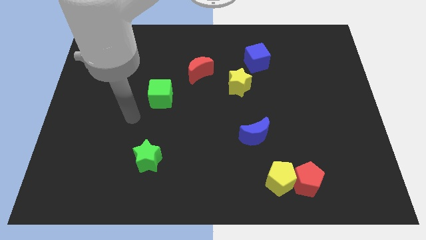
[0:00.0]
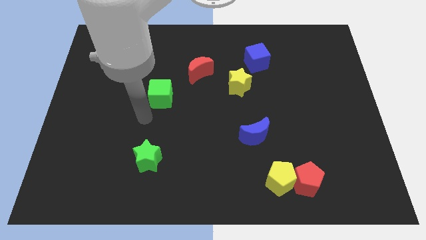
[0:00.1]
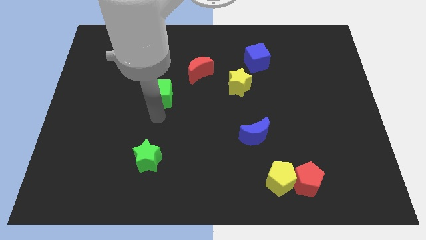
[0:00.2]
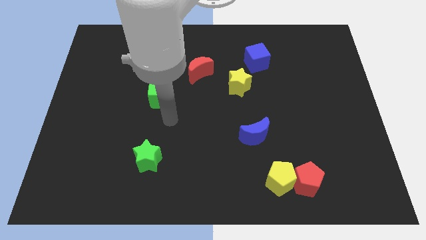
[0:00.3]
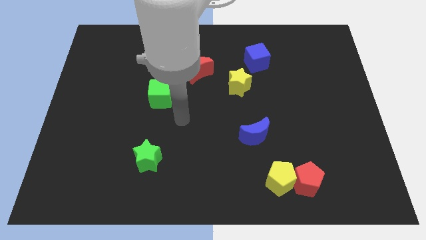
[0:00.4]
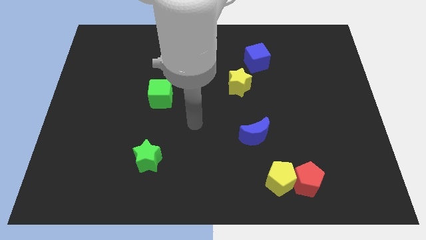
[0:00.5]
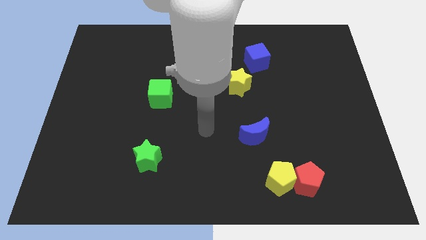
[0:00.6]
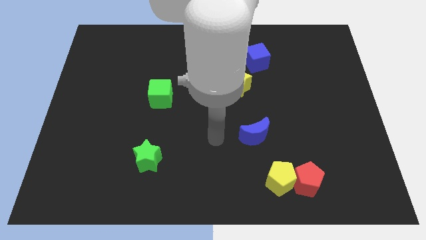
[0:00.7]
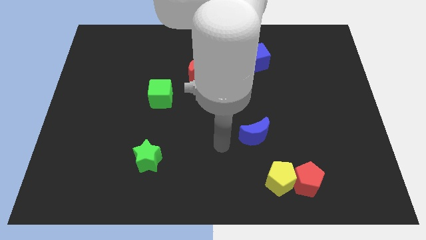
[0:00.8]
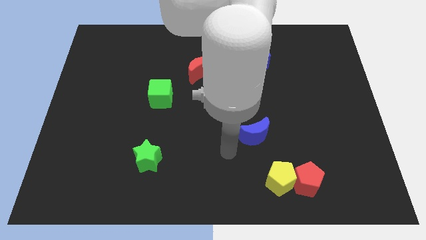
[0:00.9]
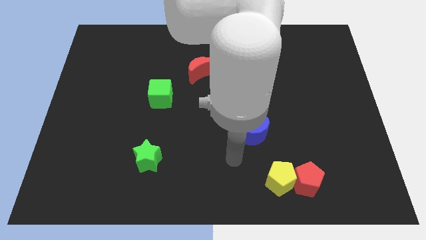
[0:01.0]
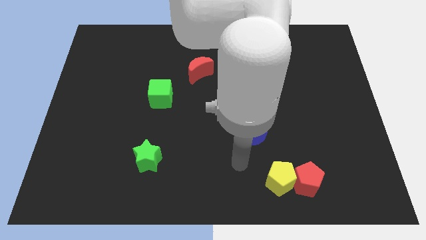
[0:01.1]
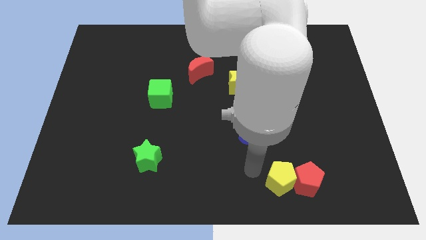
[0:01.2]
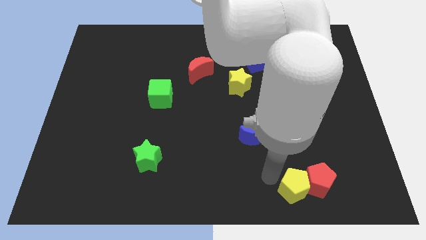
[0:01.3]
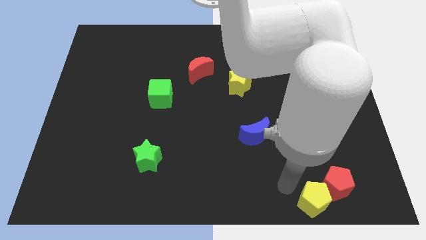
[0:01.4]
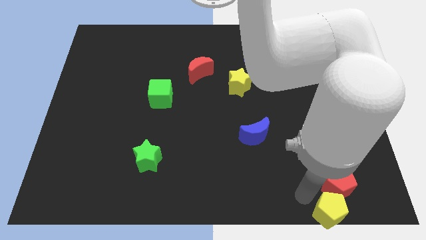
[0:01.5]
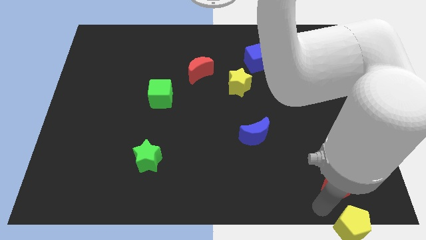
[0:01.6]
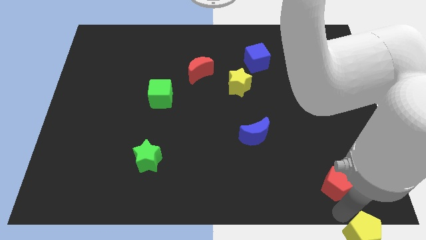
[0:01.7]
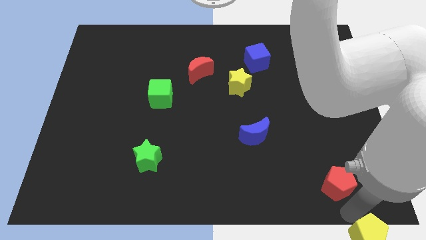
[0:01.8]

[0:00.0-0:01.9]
pull the red pentagon apart from the yellow pentagon

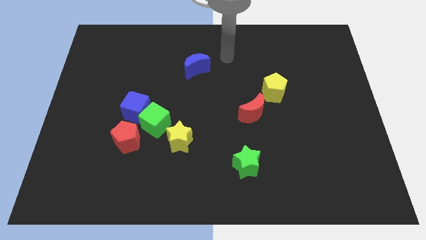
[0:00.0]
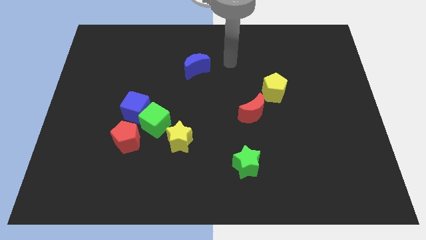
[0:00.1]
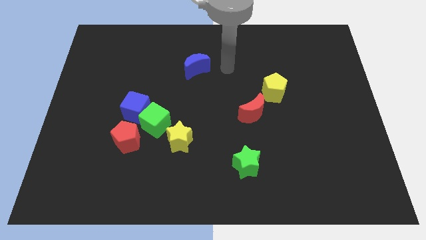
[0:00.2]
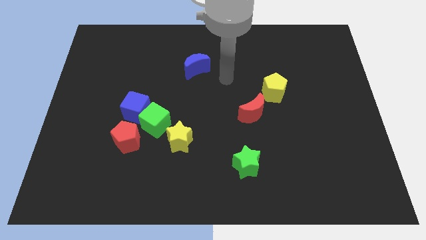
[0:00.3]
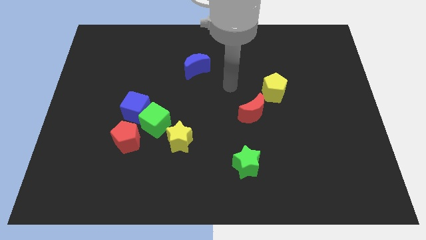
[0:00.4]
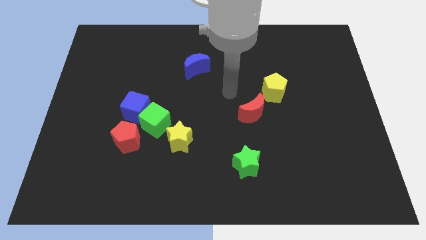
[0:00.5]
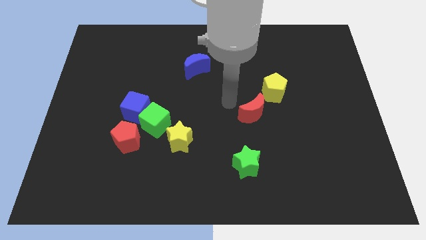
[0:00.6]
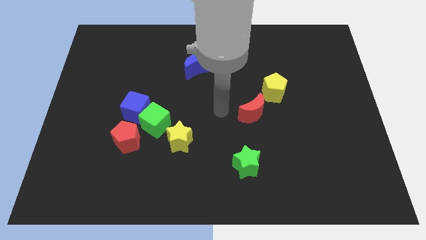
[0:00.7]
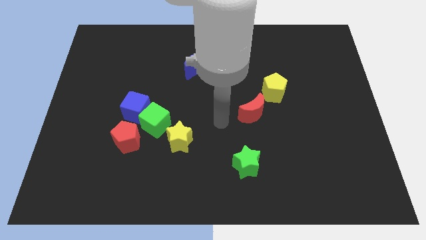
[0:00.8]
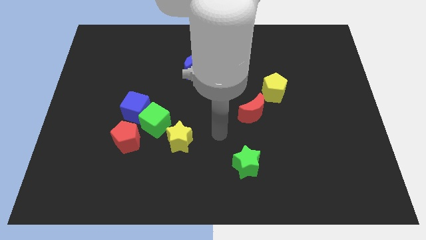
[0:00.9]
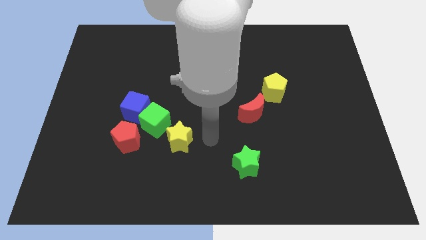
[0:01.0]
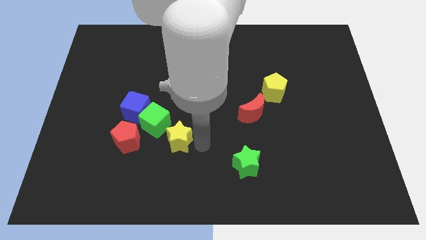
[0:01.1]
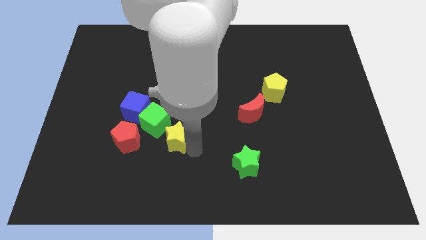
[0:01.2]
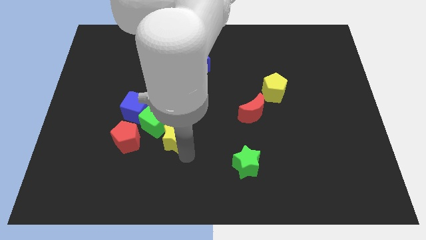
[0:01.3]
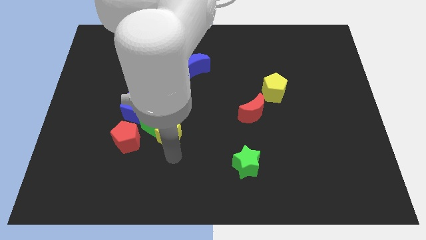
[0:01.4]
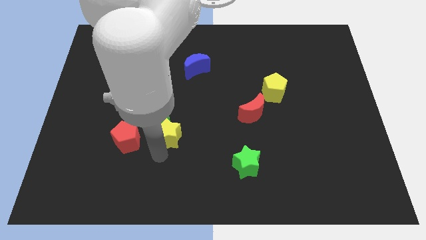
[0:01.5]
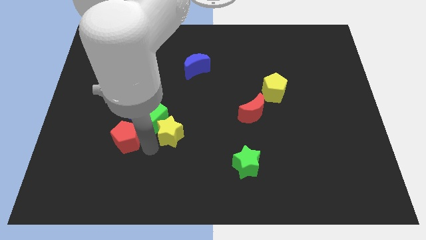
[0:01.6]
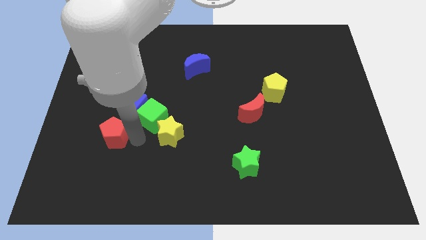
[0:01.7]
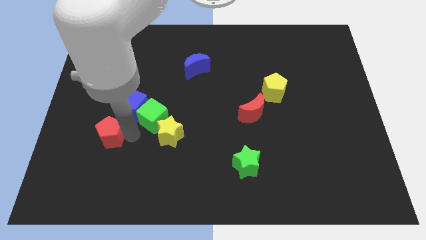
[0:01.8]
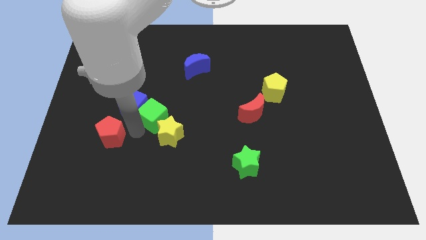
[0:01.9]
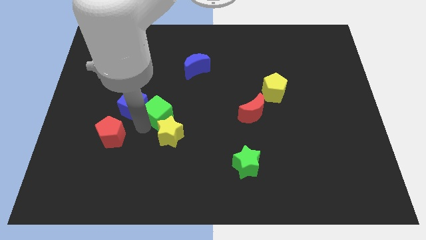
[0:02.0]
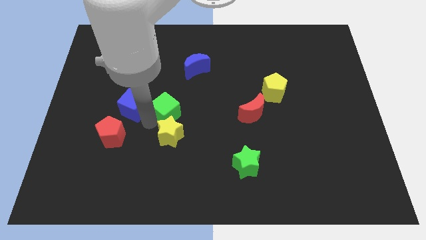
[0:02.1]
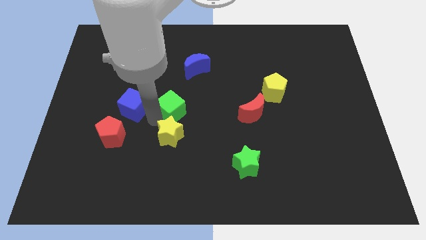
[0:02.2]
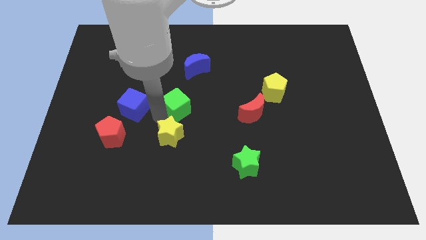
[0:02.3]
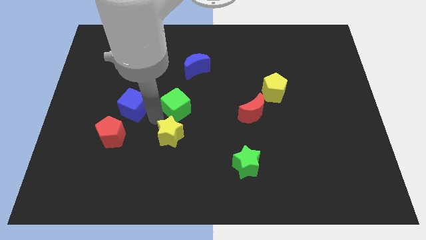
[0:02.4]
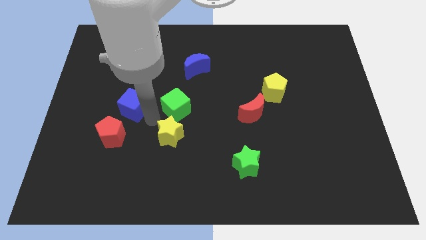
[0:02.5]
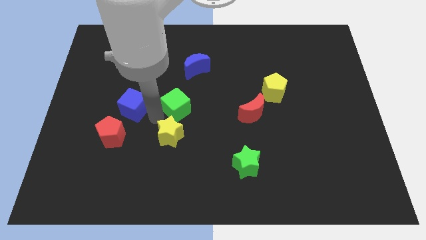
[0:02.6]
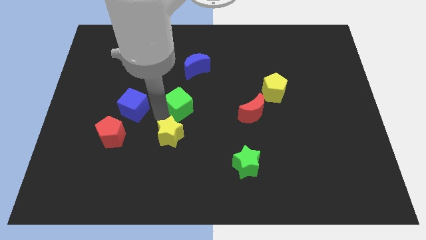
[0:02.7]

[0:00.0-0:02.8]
separate the green cube from the blue cube, red pentagon, and yellow star

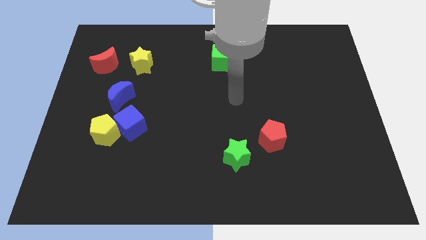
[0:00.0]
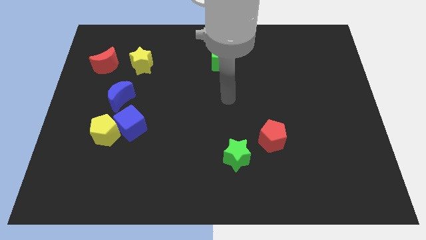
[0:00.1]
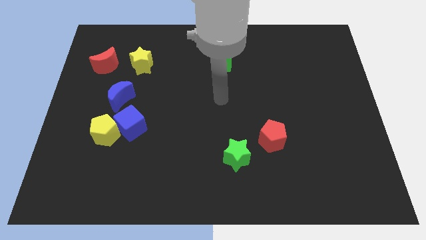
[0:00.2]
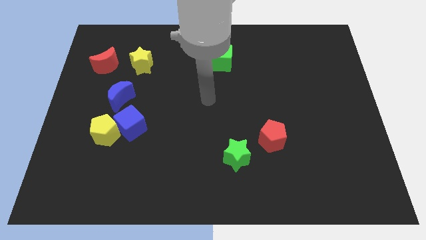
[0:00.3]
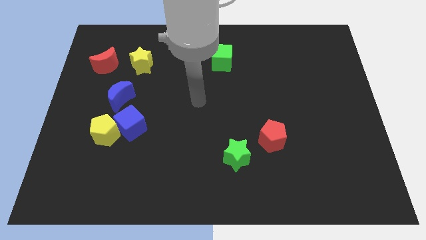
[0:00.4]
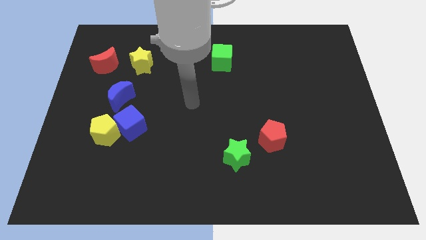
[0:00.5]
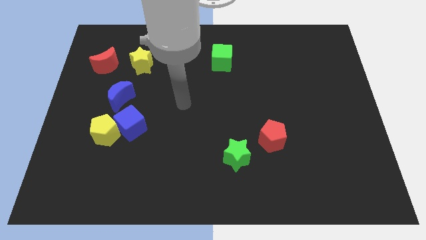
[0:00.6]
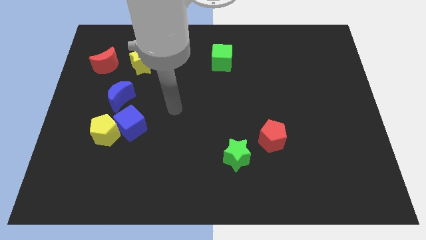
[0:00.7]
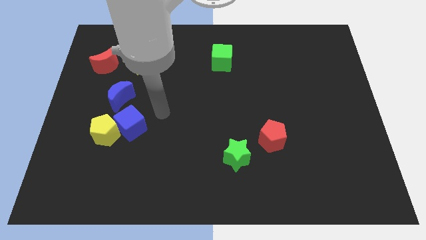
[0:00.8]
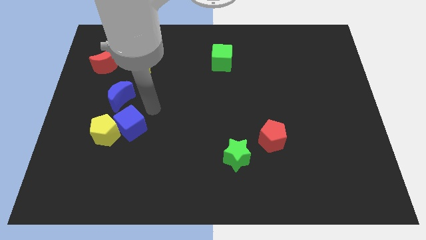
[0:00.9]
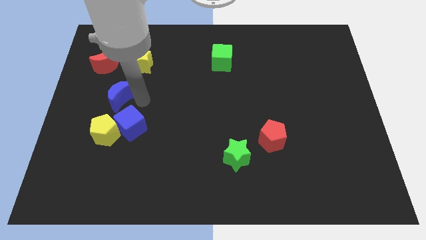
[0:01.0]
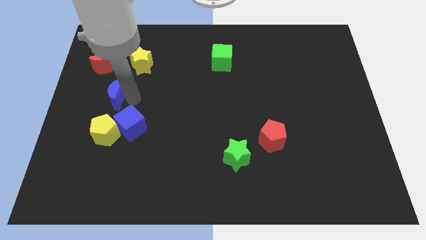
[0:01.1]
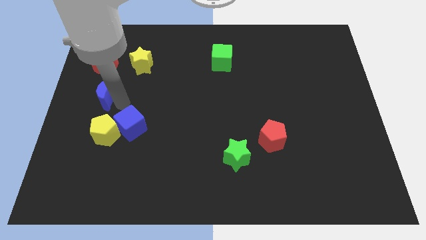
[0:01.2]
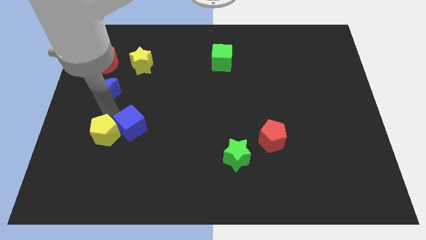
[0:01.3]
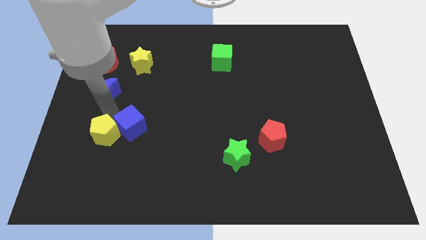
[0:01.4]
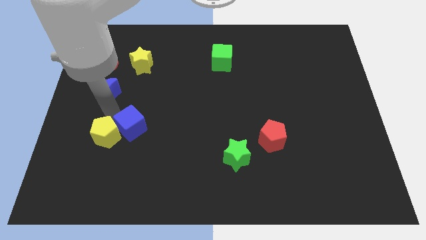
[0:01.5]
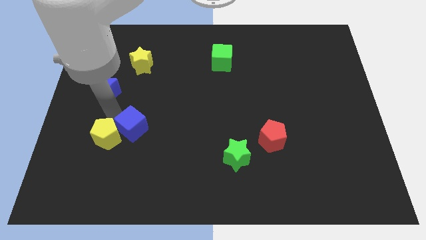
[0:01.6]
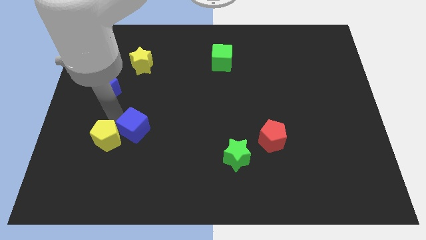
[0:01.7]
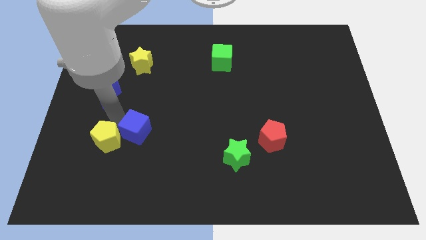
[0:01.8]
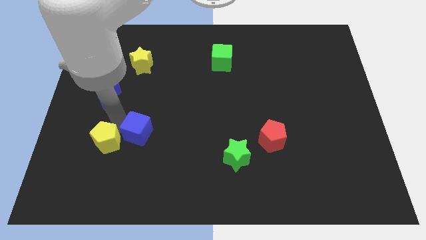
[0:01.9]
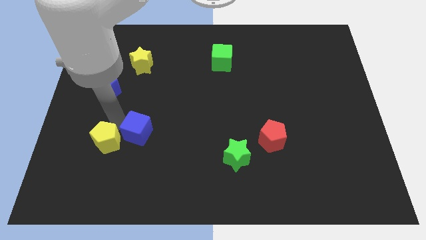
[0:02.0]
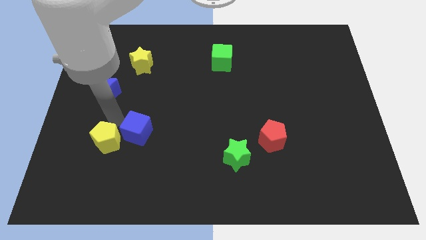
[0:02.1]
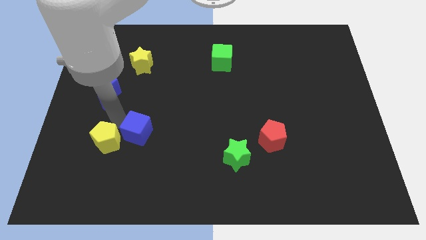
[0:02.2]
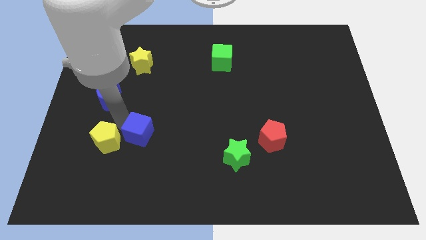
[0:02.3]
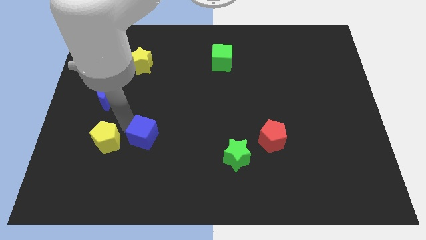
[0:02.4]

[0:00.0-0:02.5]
separate the blue cube from the yellow pentagon and blue moon

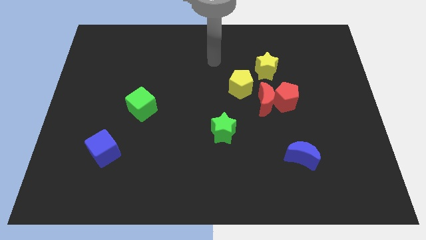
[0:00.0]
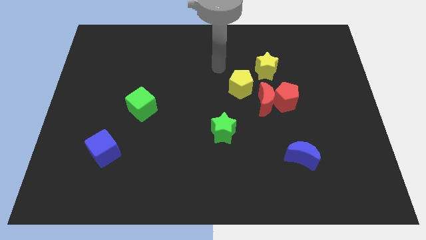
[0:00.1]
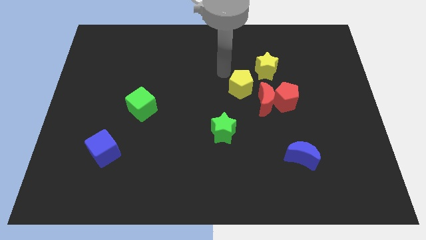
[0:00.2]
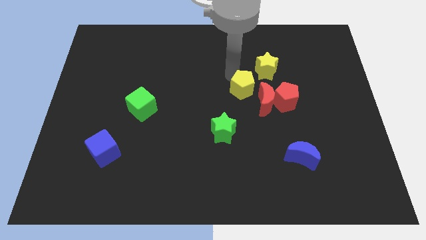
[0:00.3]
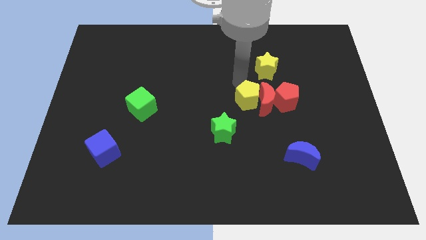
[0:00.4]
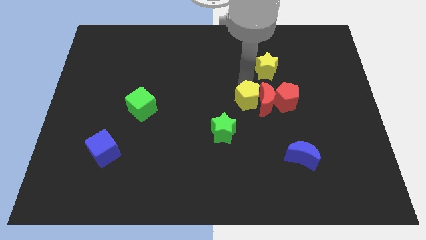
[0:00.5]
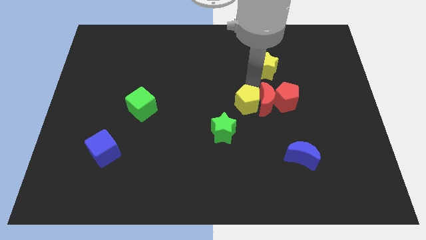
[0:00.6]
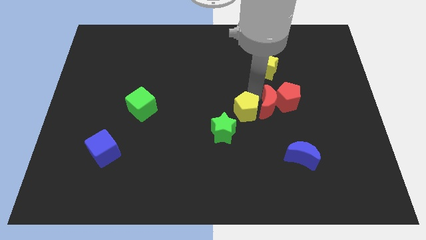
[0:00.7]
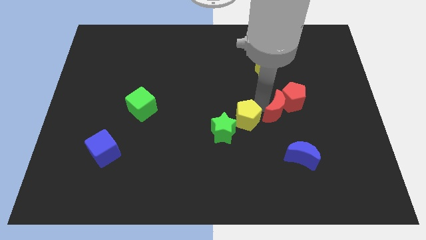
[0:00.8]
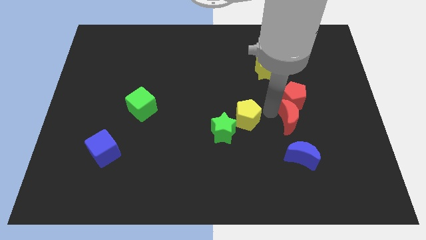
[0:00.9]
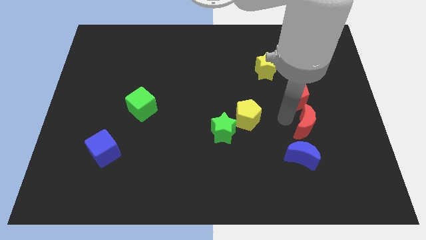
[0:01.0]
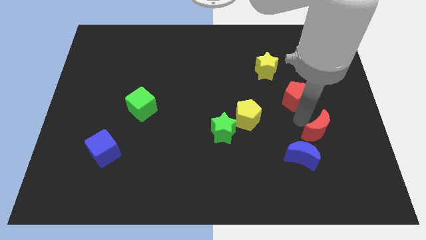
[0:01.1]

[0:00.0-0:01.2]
pull the red pentagon apart from the red moon

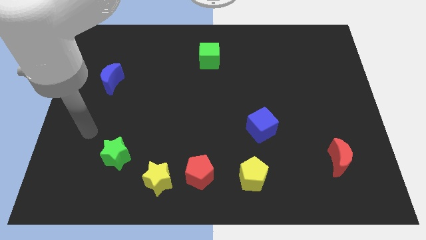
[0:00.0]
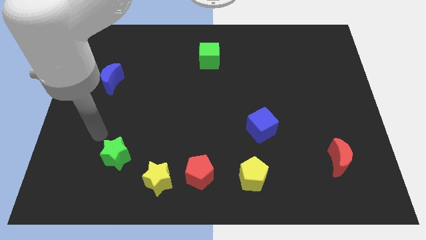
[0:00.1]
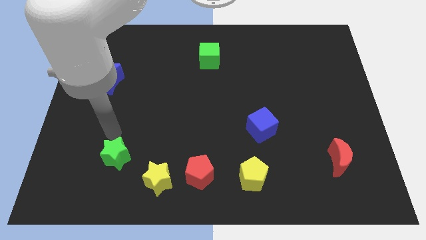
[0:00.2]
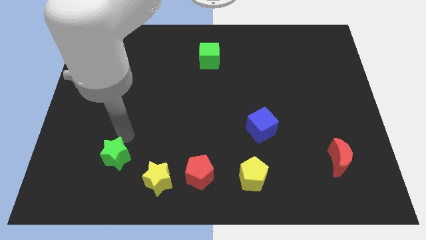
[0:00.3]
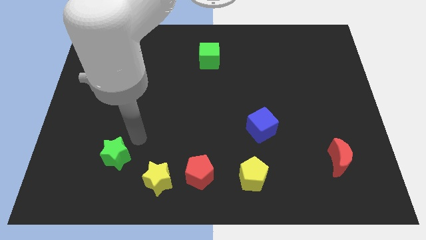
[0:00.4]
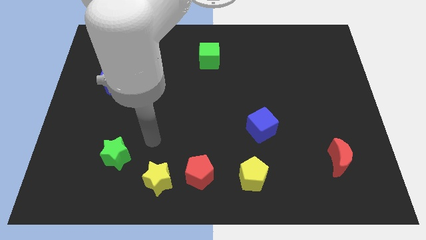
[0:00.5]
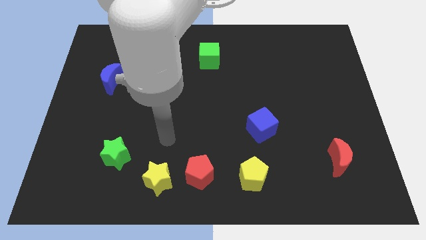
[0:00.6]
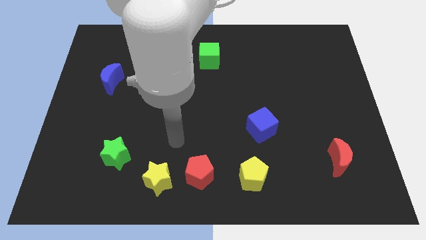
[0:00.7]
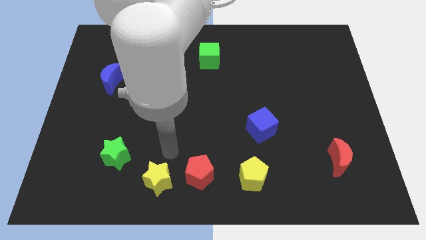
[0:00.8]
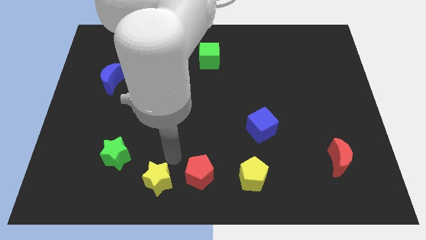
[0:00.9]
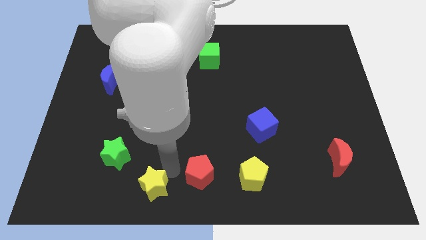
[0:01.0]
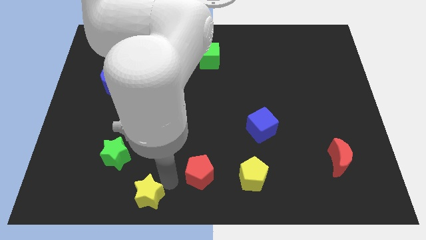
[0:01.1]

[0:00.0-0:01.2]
separate the red pentagon from the yellow star
